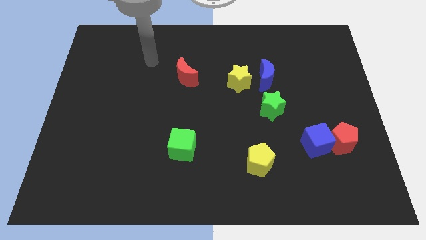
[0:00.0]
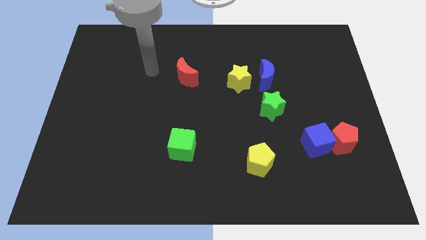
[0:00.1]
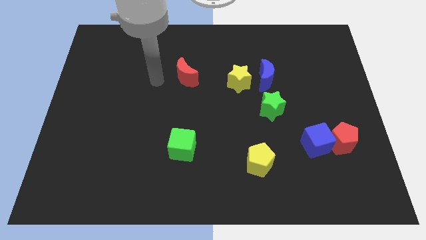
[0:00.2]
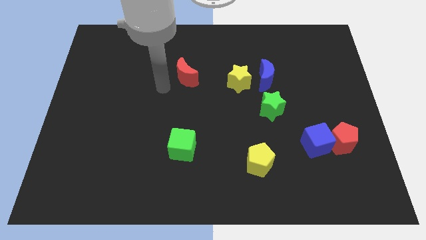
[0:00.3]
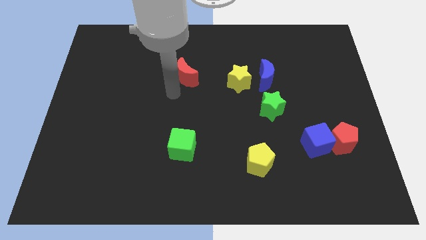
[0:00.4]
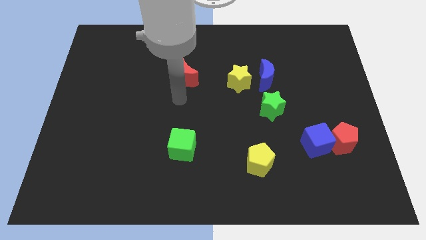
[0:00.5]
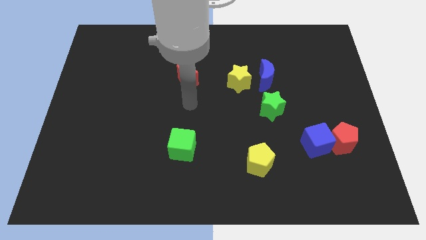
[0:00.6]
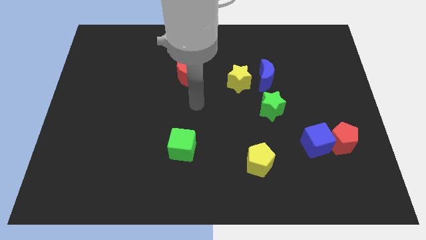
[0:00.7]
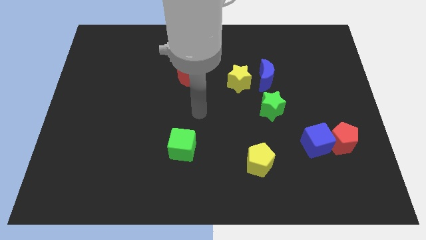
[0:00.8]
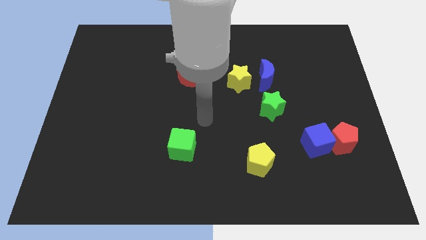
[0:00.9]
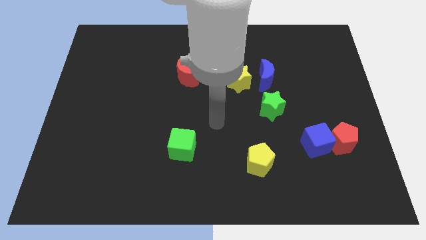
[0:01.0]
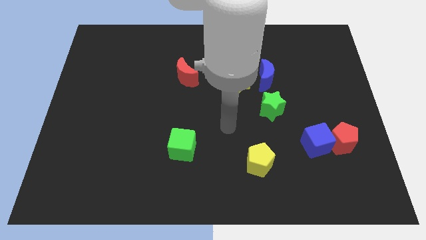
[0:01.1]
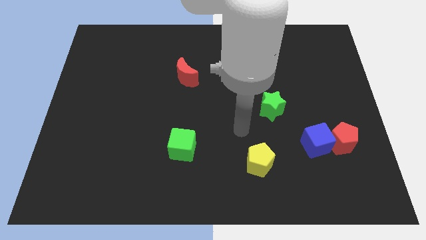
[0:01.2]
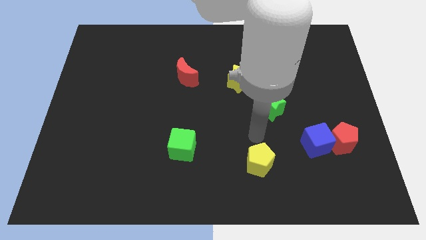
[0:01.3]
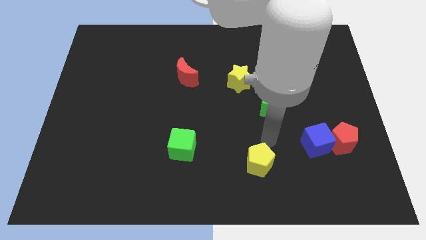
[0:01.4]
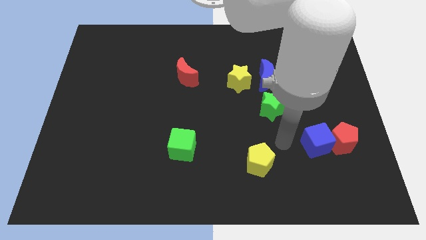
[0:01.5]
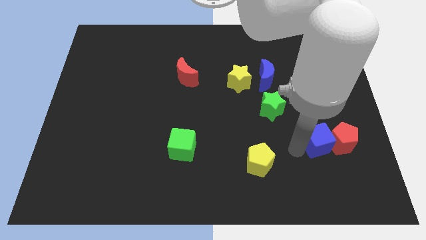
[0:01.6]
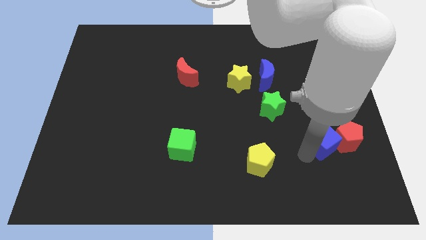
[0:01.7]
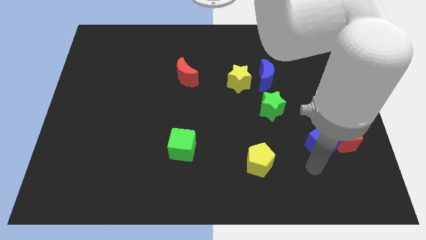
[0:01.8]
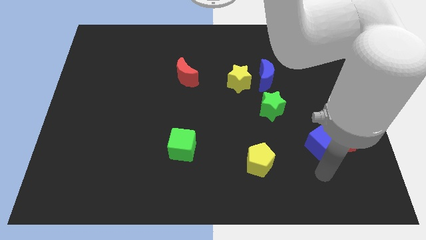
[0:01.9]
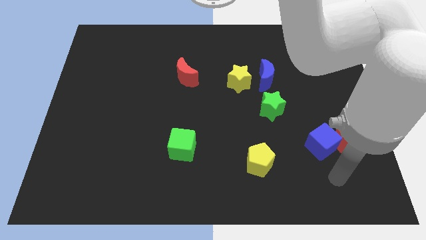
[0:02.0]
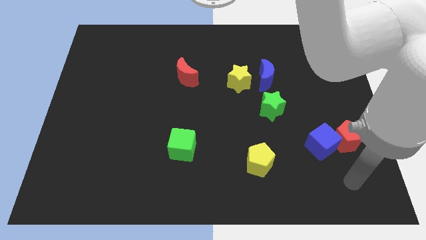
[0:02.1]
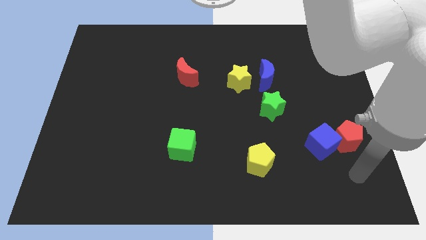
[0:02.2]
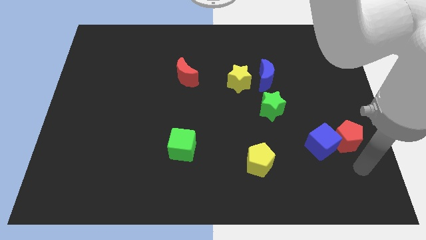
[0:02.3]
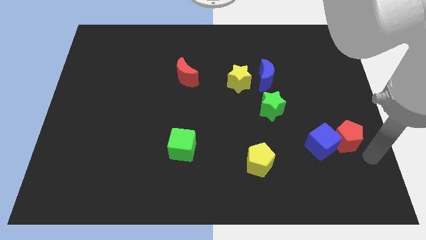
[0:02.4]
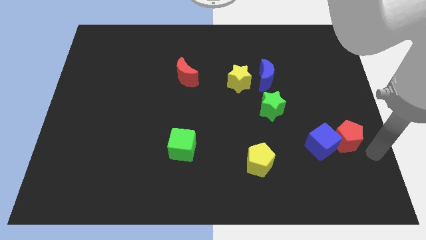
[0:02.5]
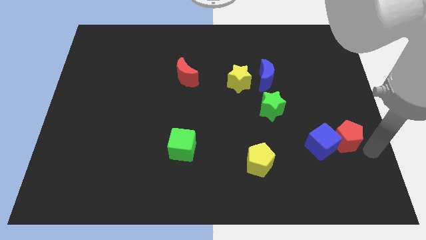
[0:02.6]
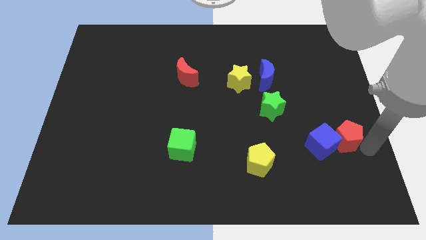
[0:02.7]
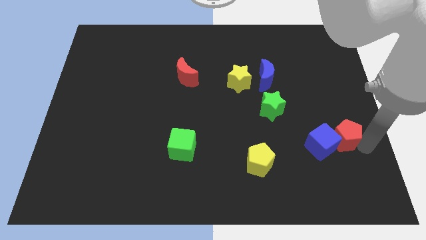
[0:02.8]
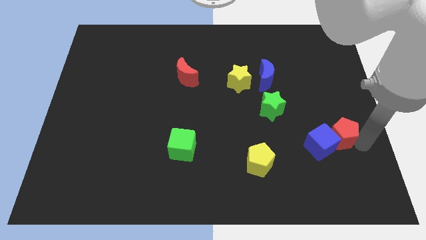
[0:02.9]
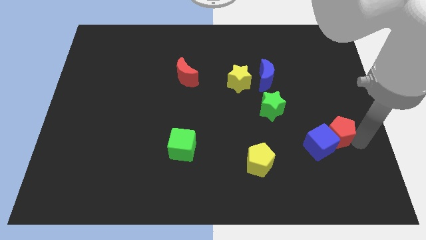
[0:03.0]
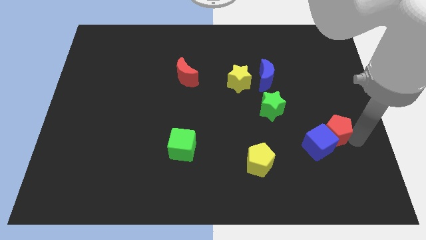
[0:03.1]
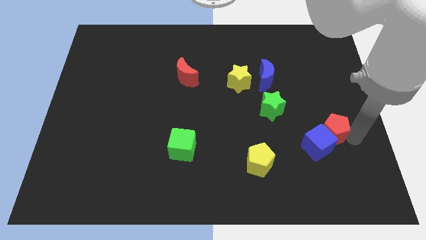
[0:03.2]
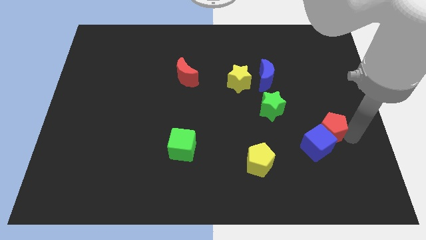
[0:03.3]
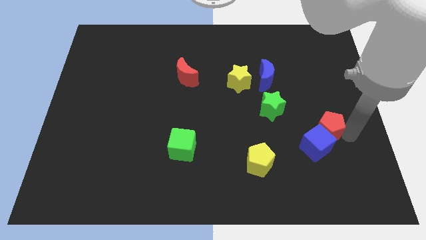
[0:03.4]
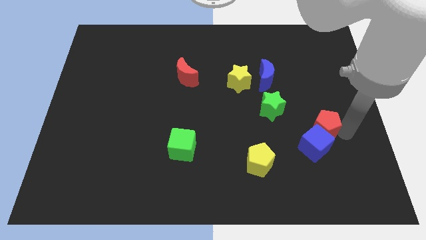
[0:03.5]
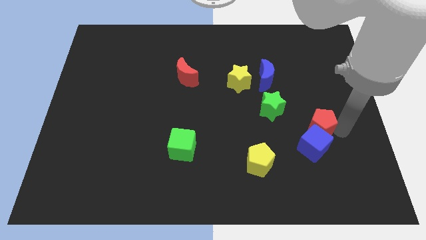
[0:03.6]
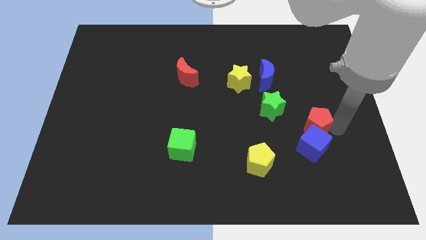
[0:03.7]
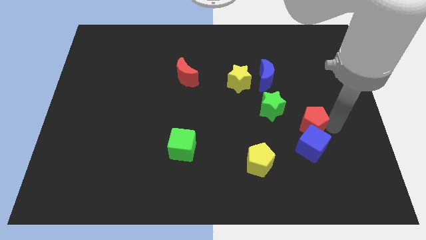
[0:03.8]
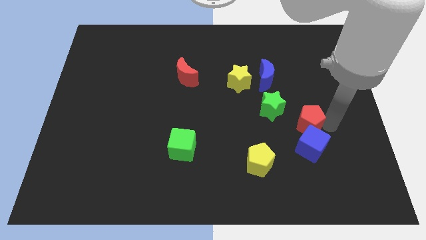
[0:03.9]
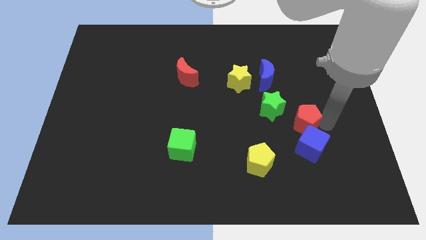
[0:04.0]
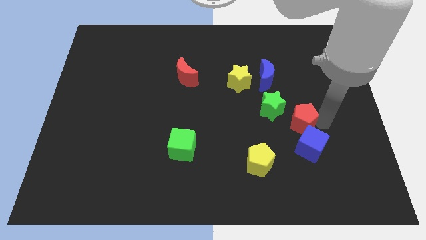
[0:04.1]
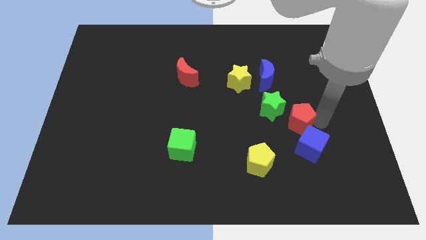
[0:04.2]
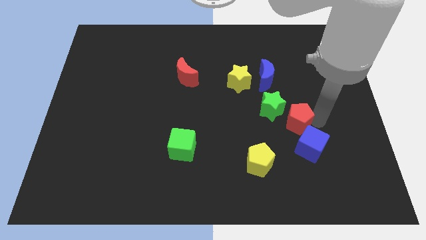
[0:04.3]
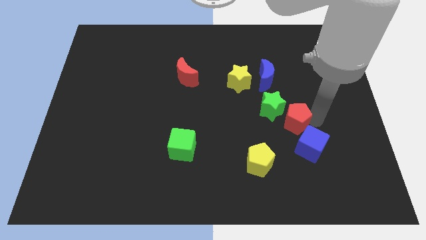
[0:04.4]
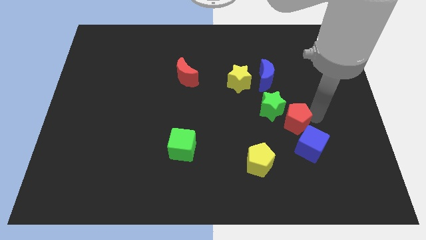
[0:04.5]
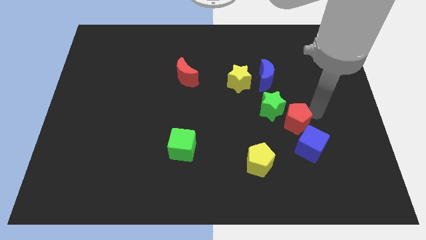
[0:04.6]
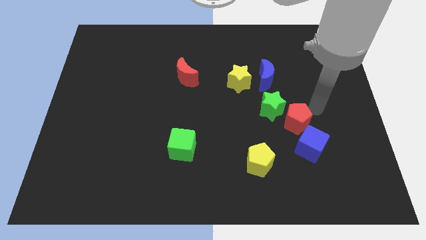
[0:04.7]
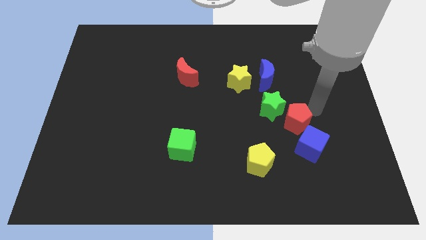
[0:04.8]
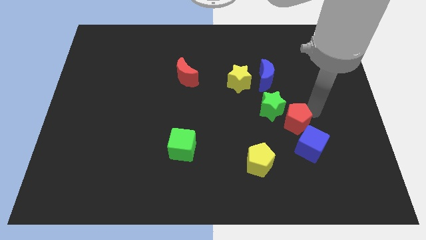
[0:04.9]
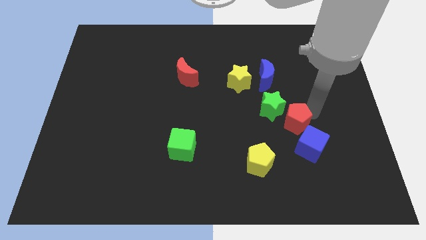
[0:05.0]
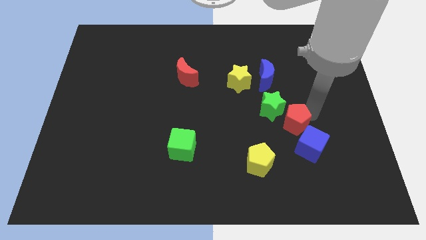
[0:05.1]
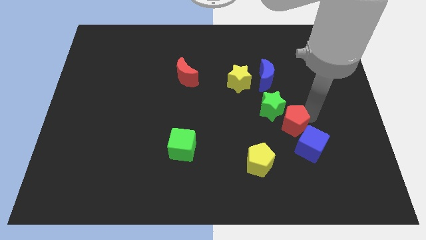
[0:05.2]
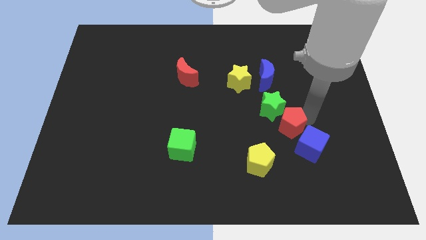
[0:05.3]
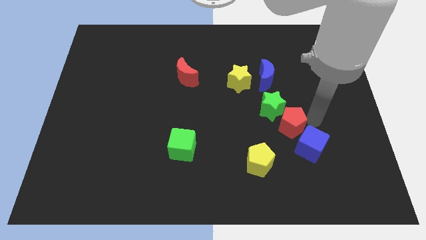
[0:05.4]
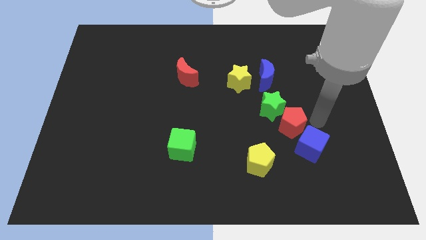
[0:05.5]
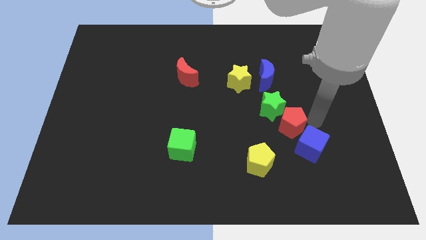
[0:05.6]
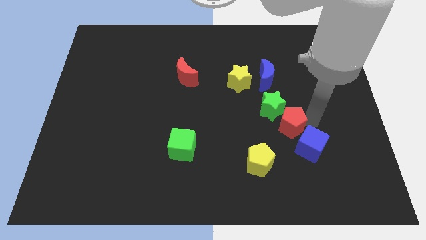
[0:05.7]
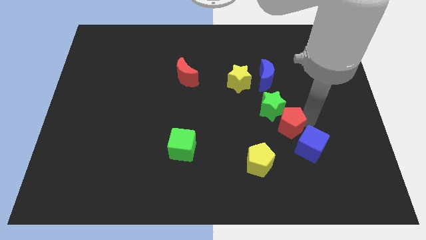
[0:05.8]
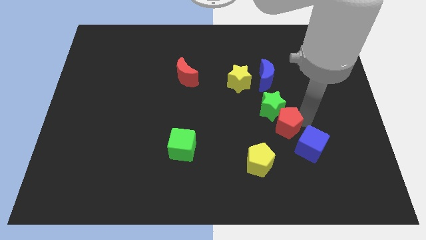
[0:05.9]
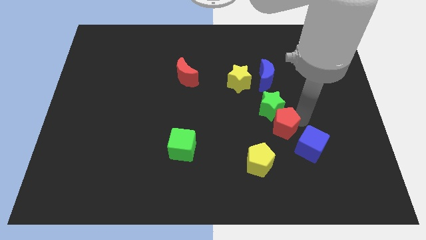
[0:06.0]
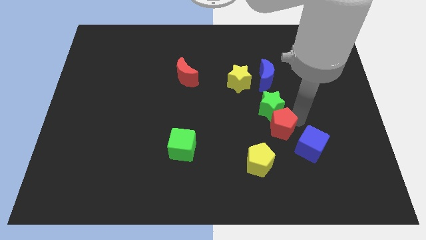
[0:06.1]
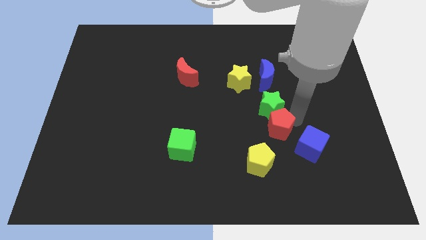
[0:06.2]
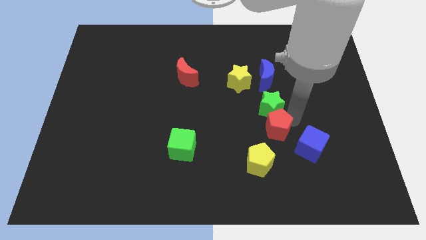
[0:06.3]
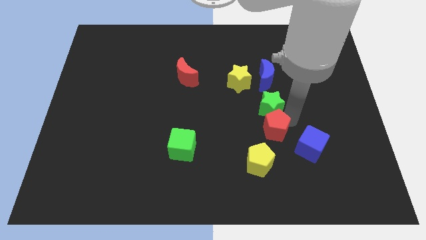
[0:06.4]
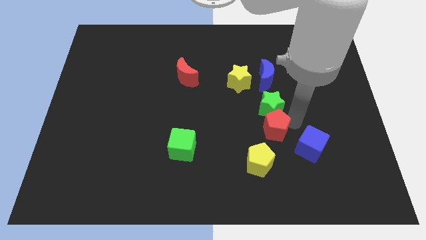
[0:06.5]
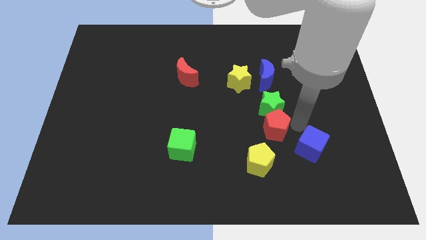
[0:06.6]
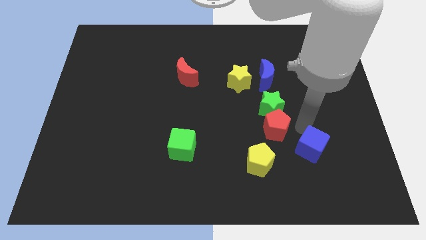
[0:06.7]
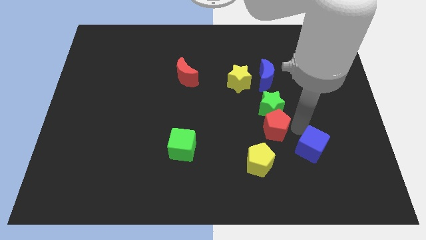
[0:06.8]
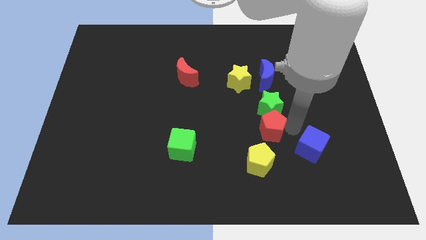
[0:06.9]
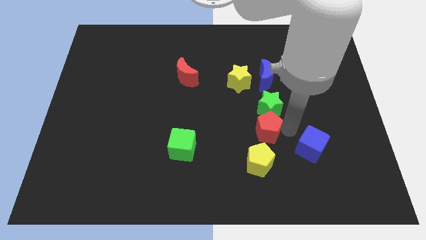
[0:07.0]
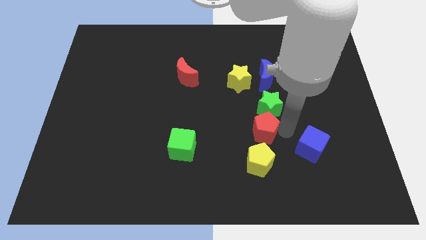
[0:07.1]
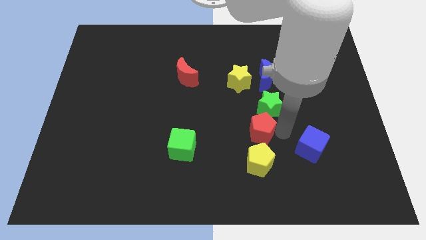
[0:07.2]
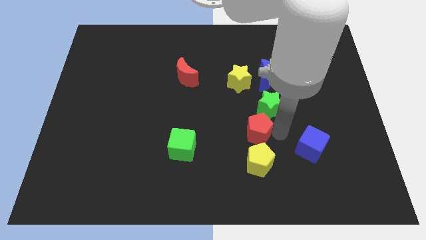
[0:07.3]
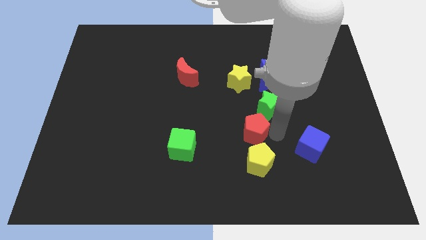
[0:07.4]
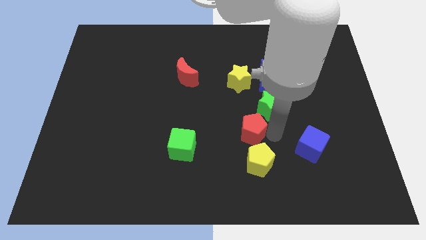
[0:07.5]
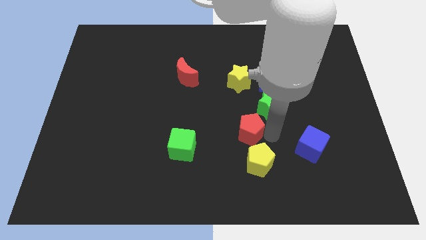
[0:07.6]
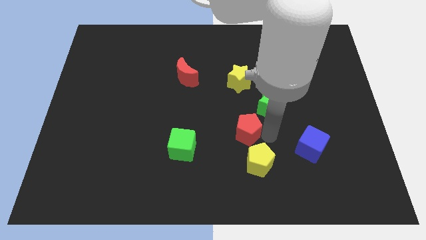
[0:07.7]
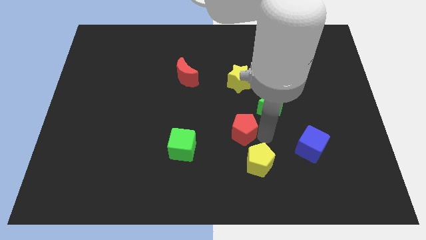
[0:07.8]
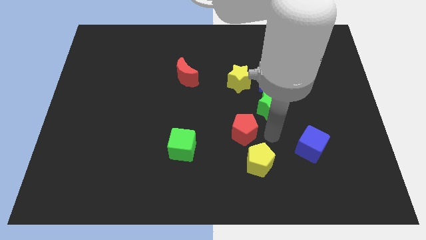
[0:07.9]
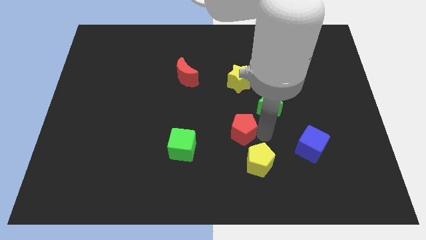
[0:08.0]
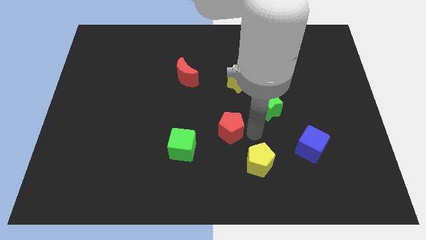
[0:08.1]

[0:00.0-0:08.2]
push the red pentagon diagonally up and to the right of the green cube
